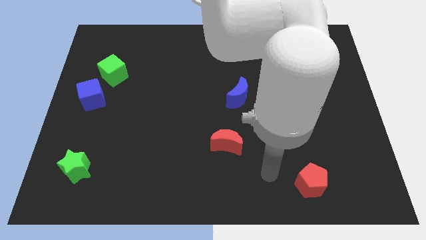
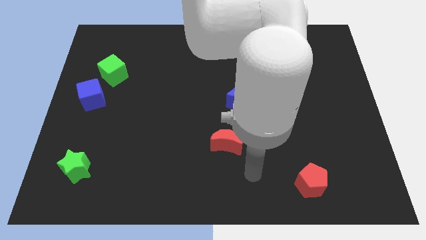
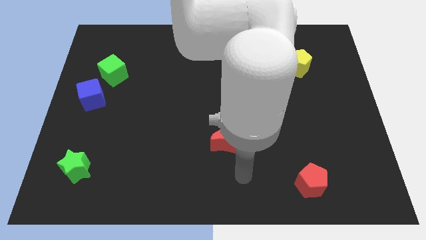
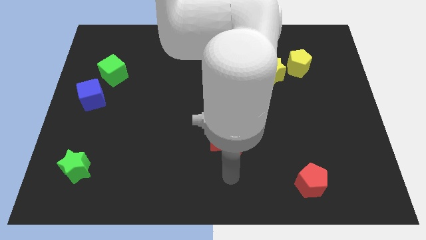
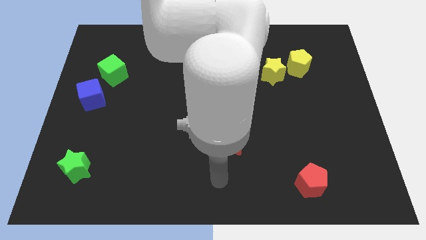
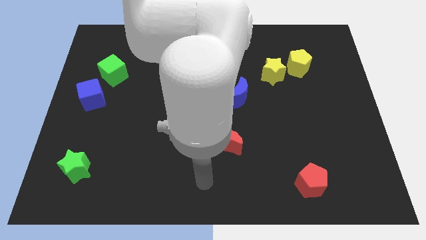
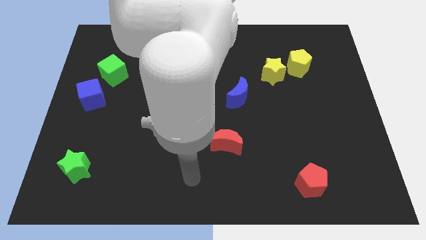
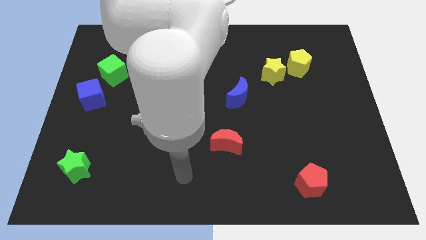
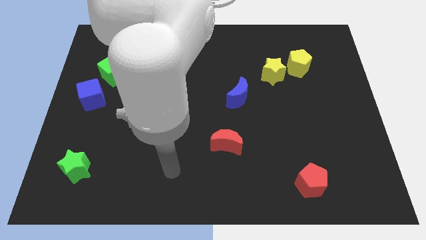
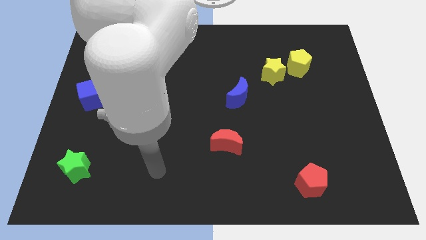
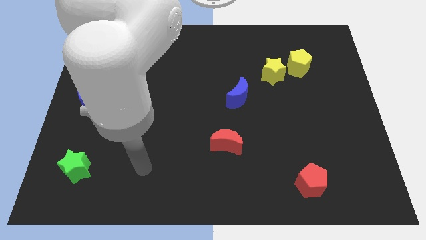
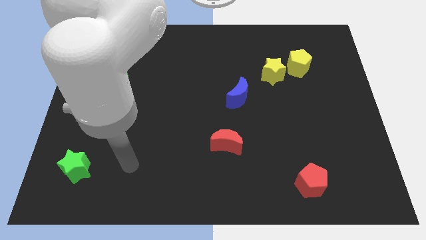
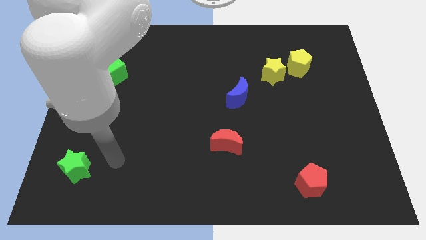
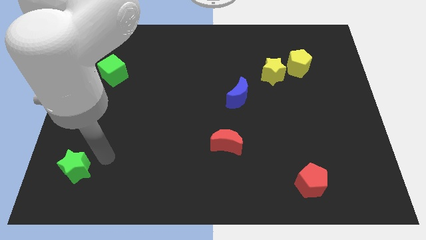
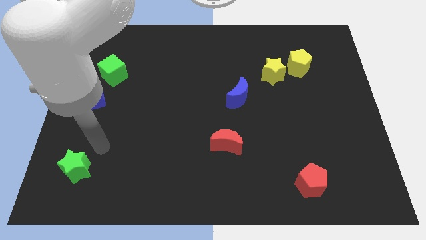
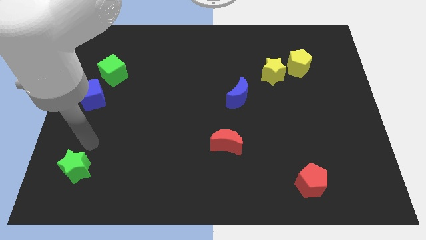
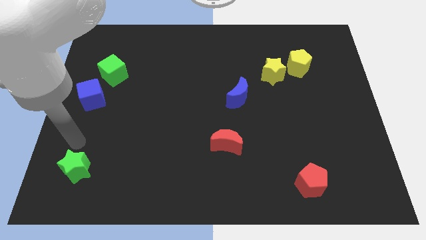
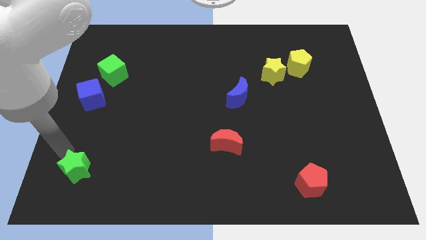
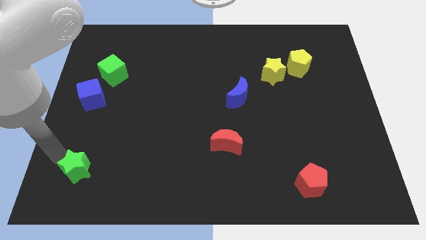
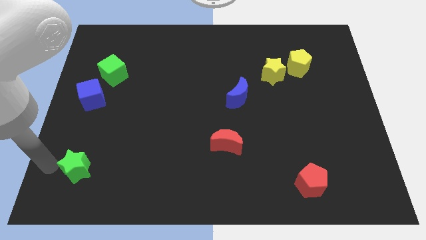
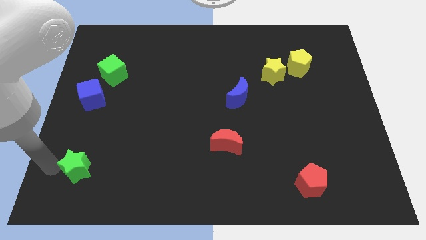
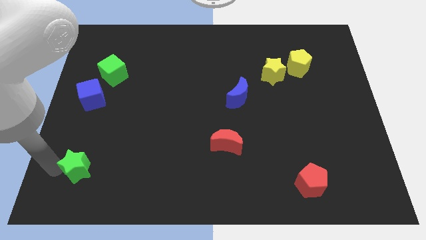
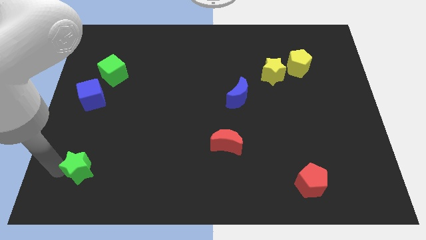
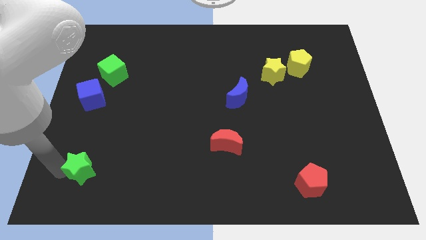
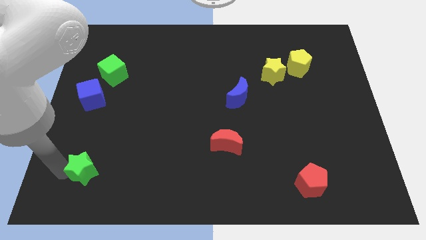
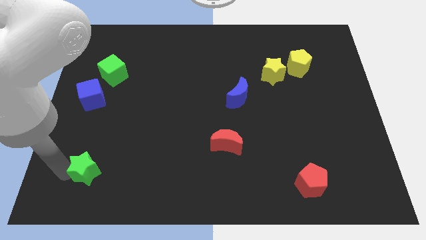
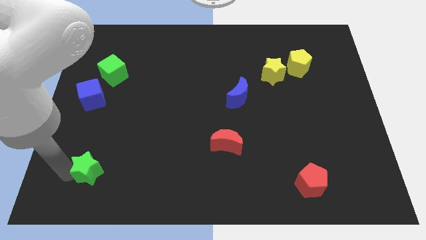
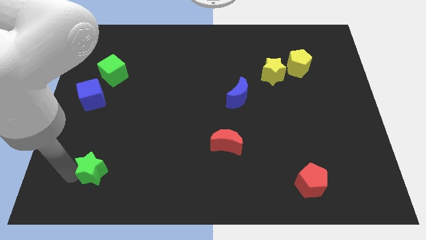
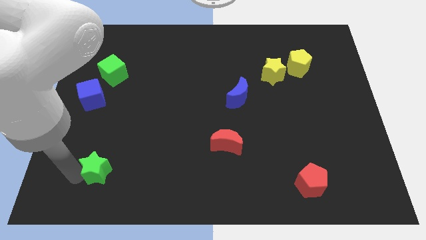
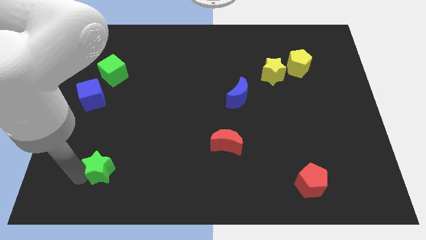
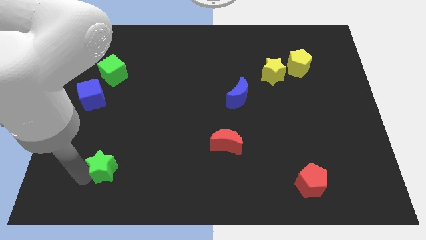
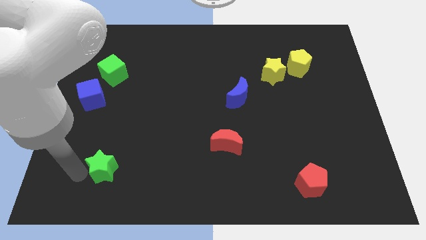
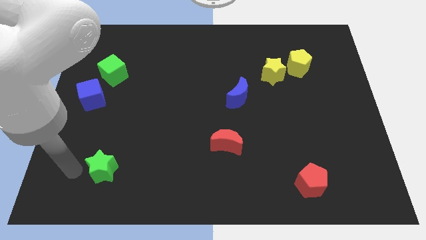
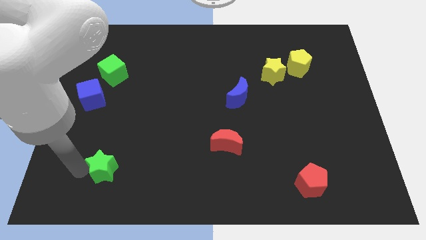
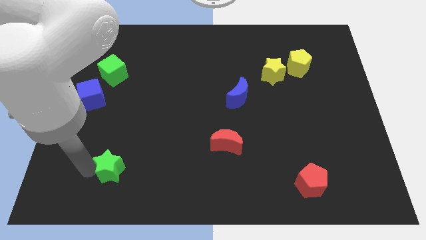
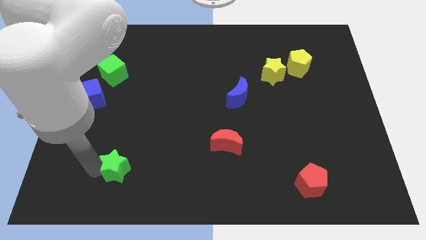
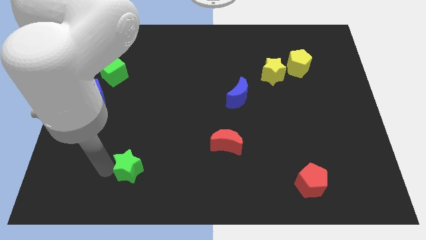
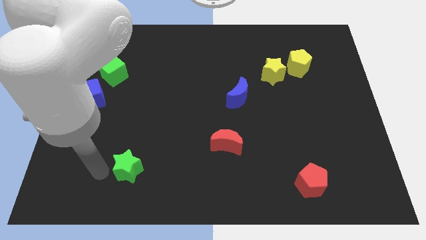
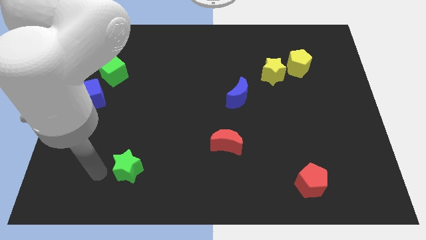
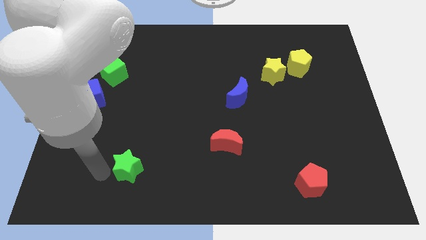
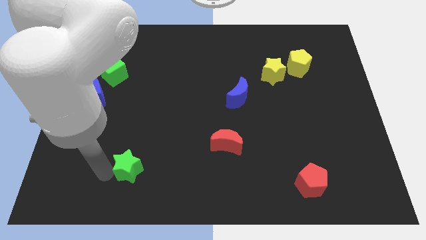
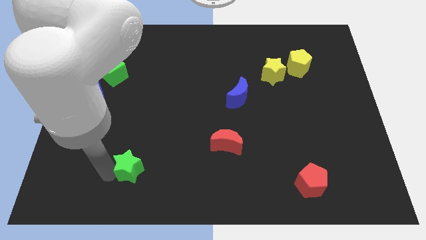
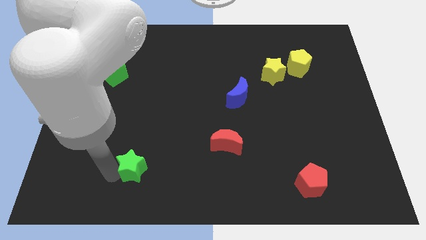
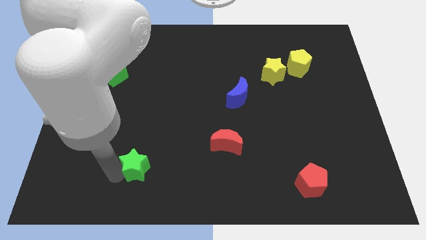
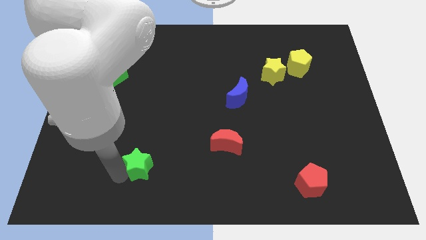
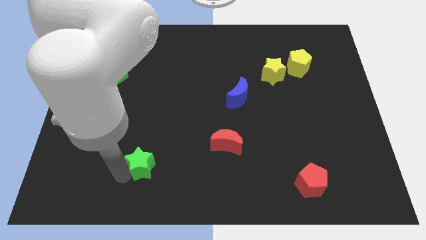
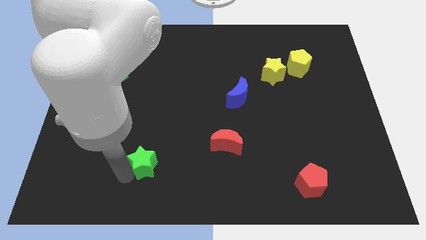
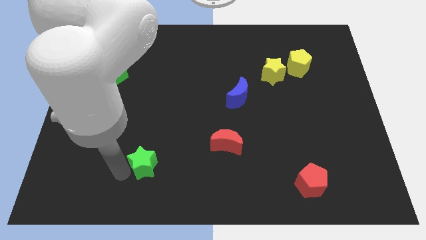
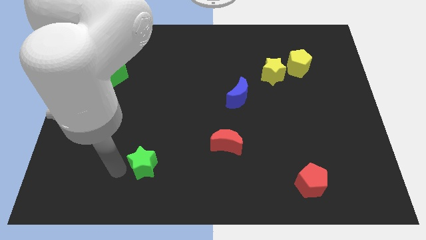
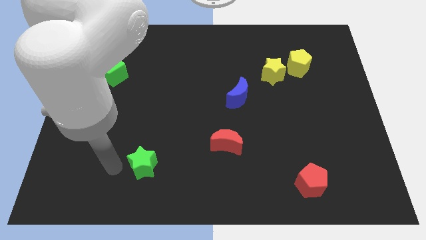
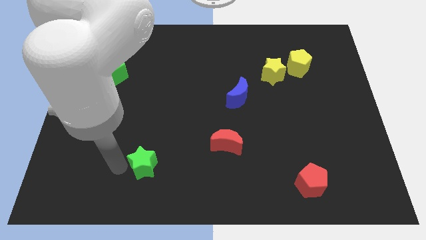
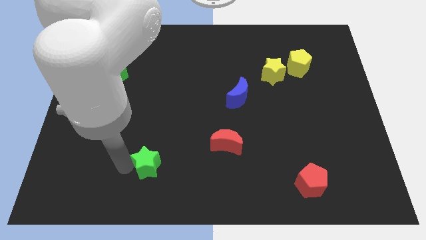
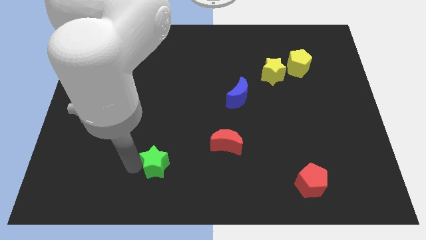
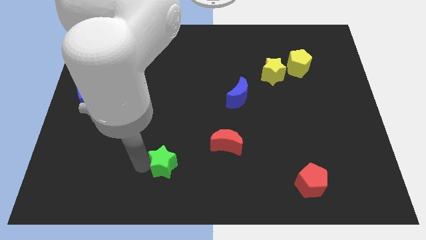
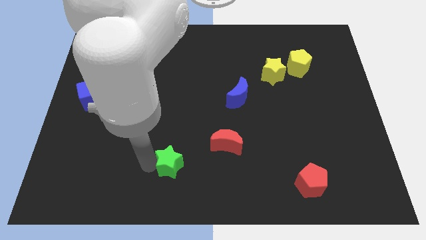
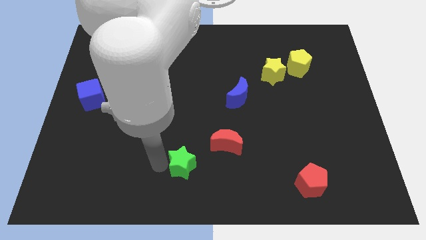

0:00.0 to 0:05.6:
slide the green star right

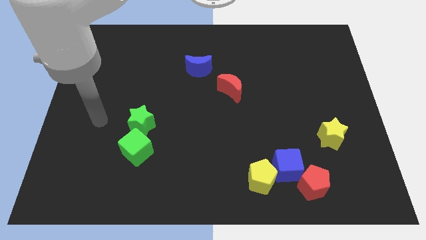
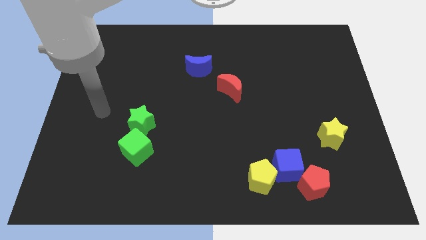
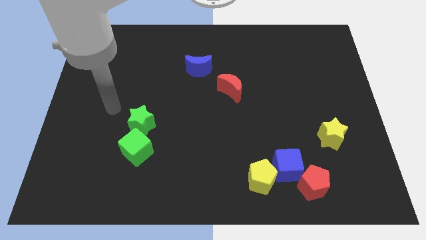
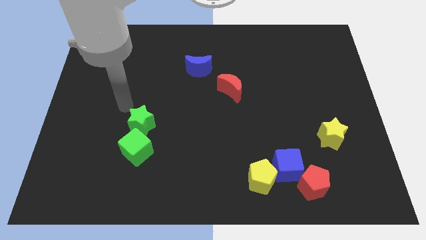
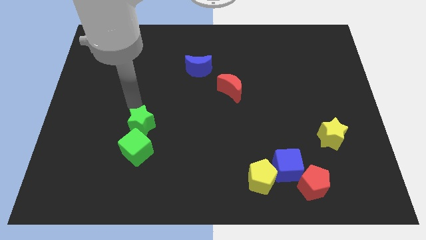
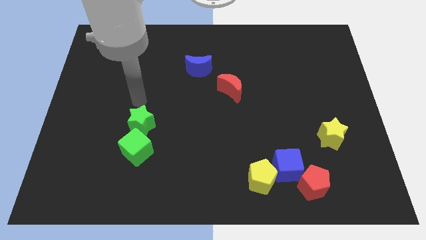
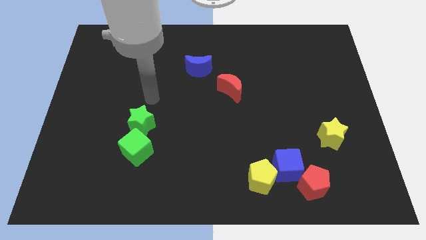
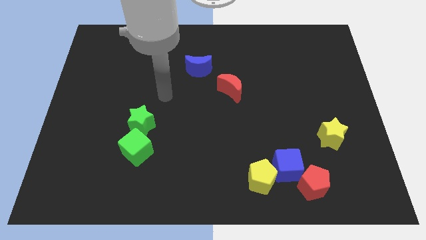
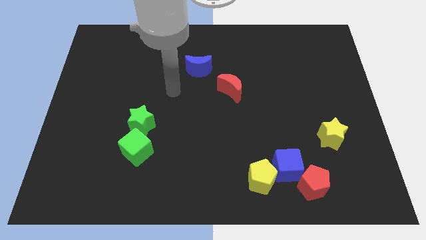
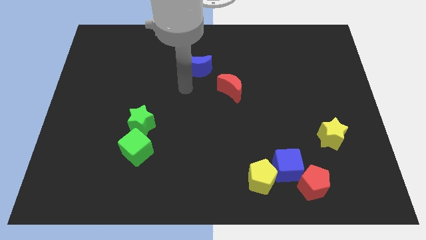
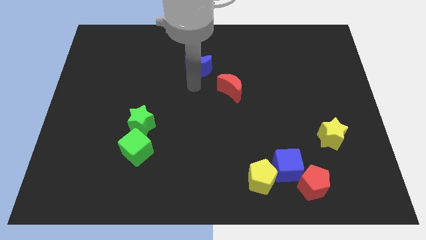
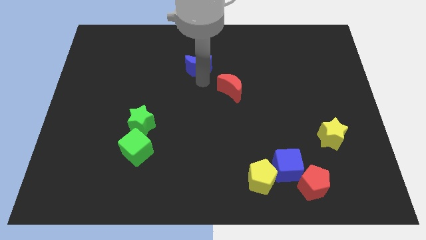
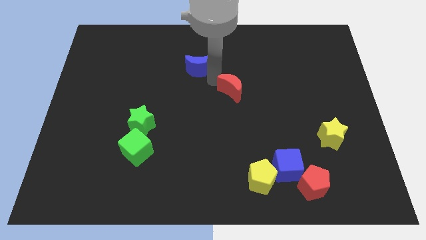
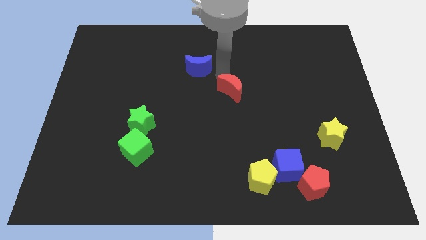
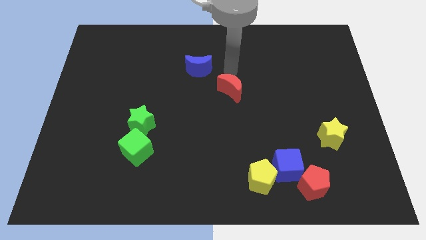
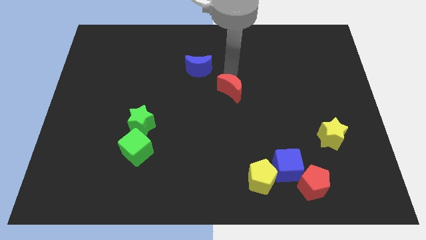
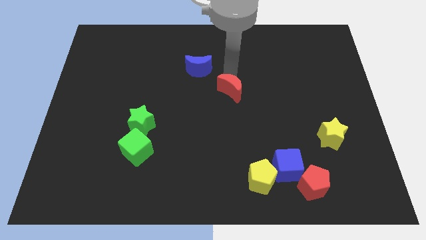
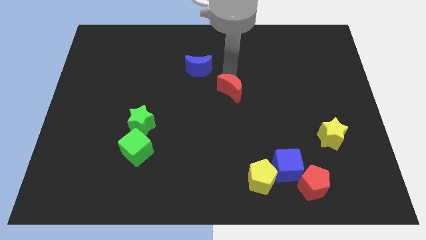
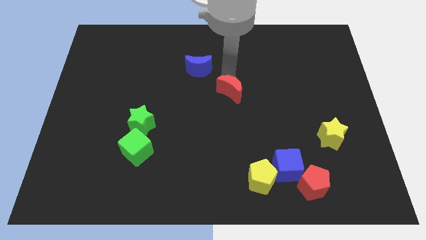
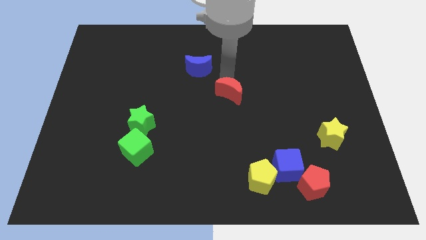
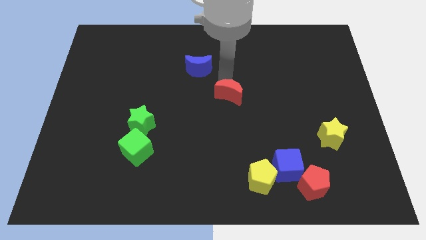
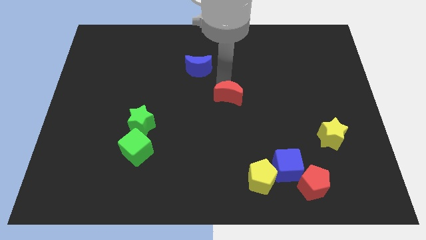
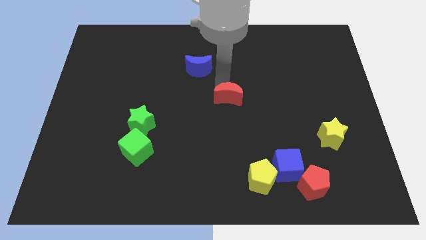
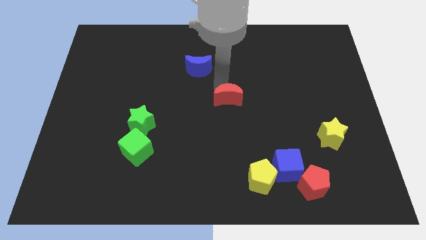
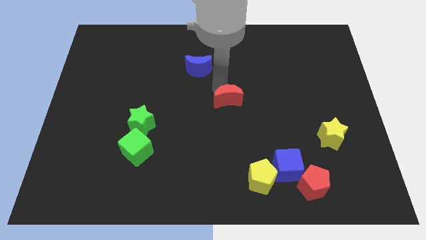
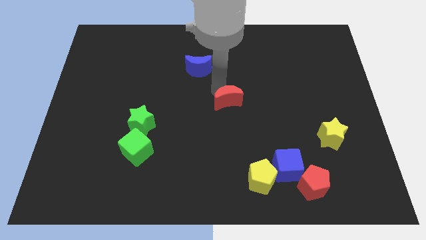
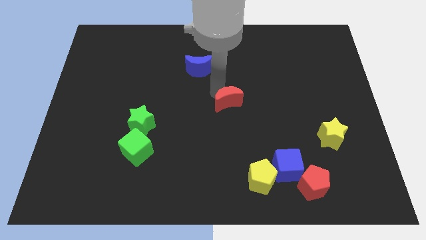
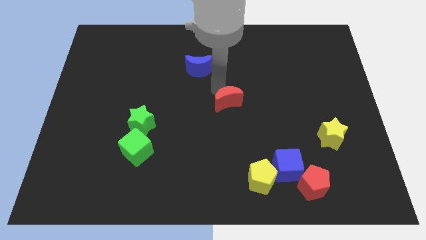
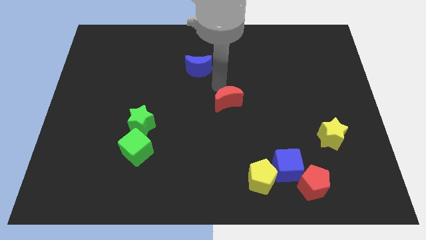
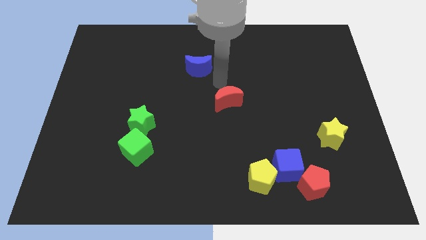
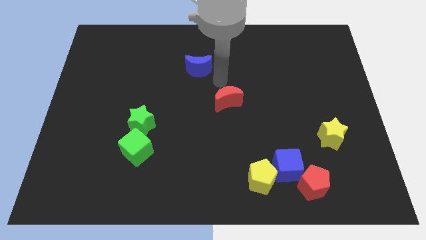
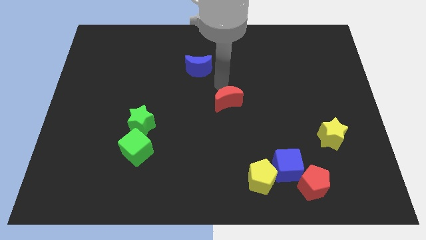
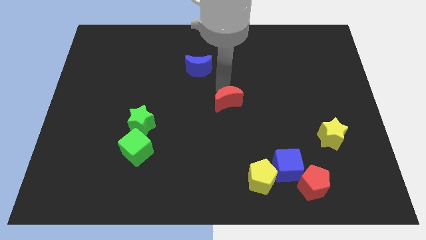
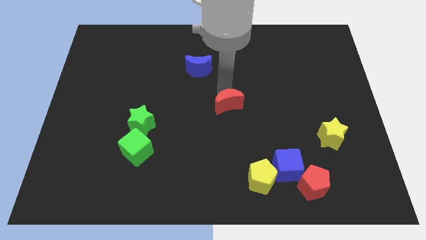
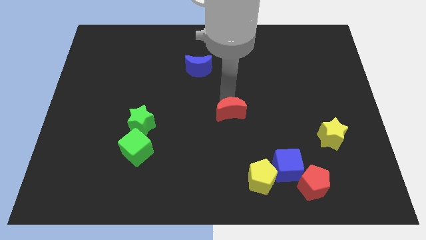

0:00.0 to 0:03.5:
slightly move the red moon downwards
